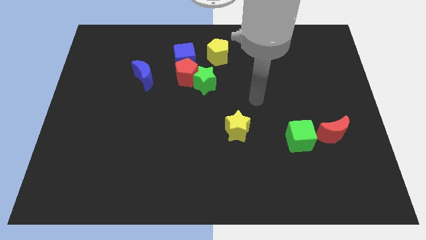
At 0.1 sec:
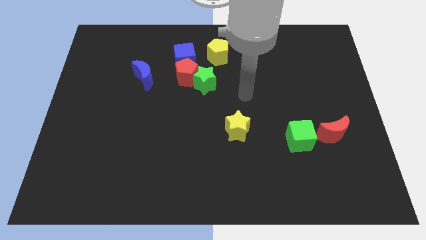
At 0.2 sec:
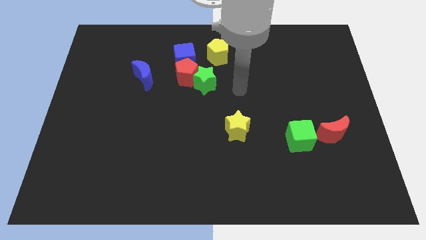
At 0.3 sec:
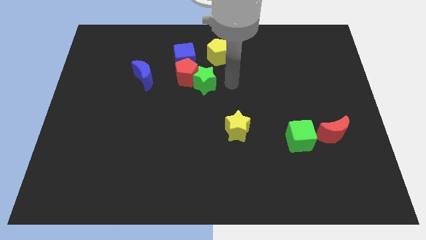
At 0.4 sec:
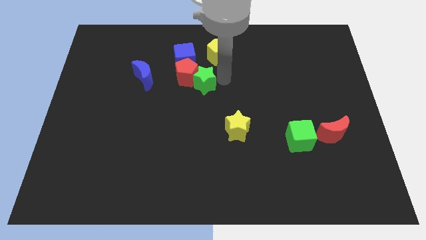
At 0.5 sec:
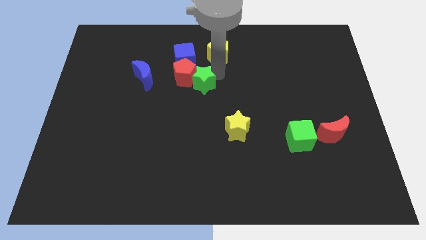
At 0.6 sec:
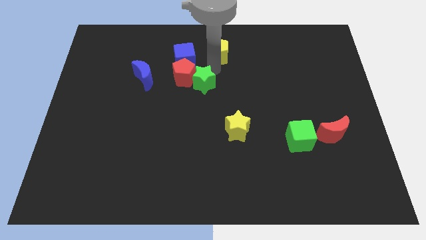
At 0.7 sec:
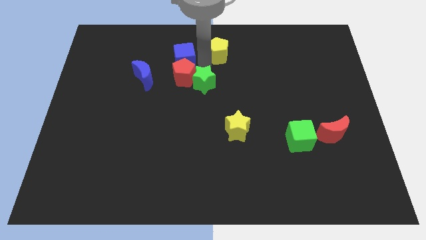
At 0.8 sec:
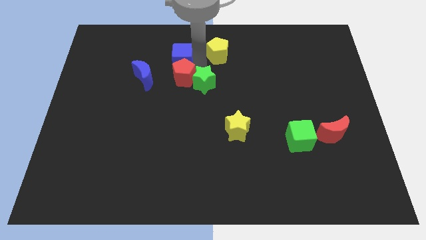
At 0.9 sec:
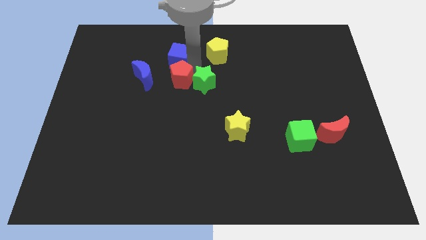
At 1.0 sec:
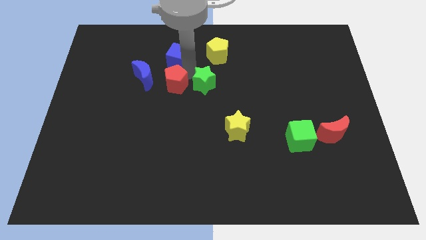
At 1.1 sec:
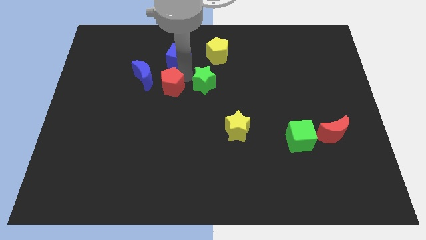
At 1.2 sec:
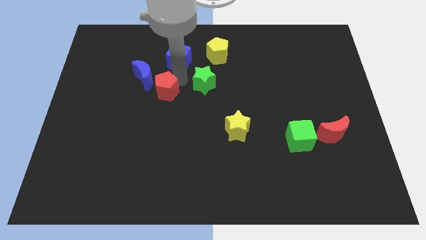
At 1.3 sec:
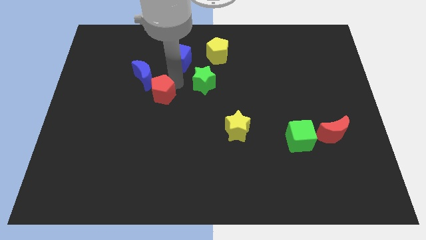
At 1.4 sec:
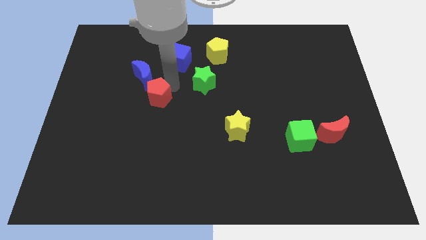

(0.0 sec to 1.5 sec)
move the red pentagon away from the green star and blue cube

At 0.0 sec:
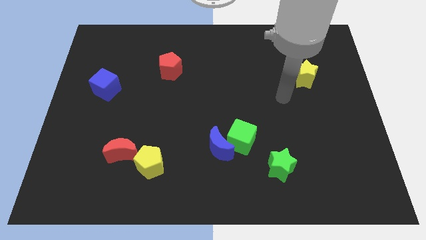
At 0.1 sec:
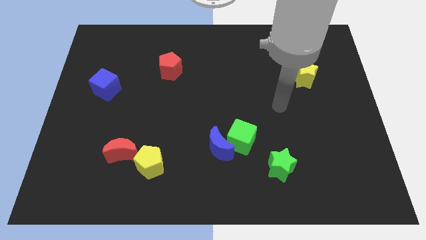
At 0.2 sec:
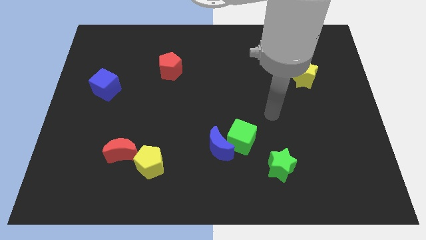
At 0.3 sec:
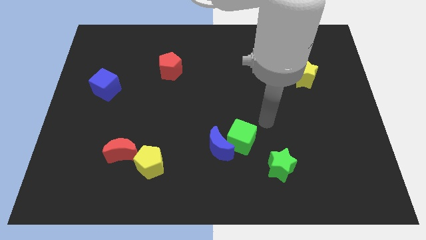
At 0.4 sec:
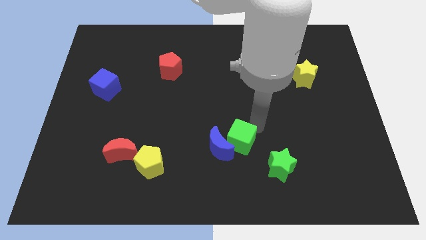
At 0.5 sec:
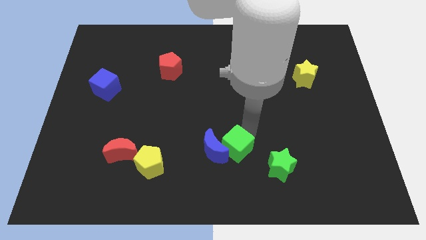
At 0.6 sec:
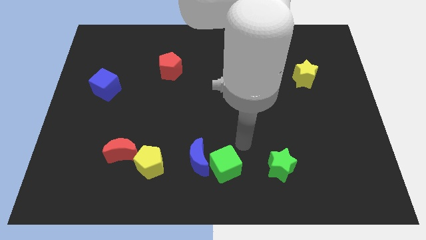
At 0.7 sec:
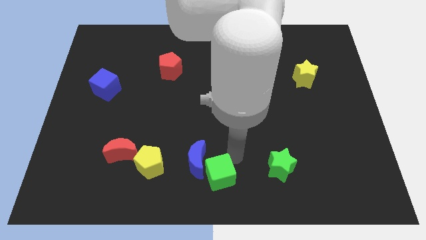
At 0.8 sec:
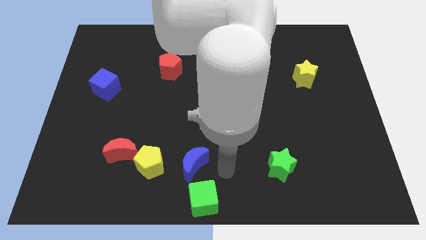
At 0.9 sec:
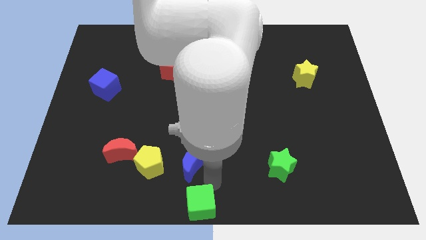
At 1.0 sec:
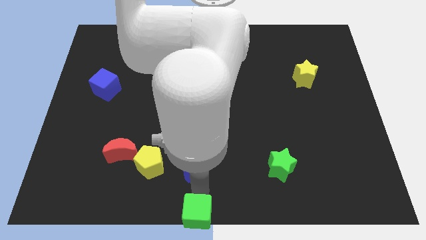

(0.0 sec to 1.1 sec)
pull the blue moon apart from the green cube

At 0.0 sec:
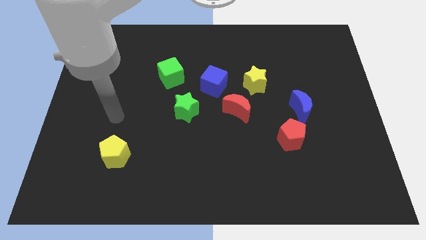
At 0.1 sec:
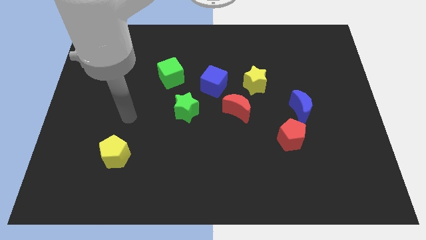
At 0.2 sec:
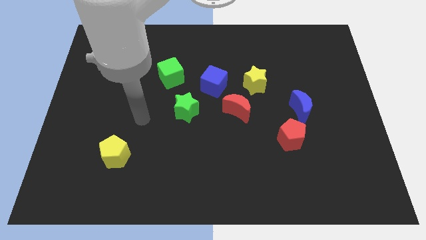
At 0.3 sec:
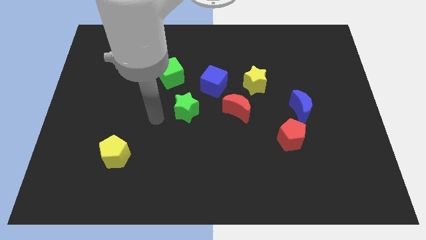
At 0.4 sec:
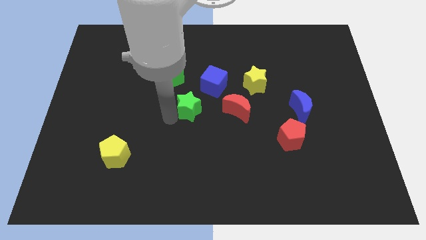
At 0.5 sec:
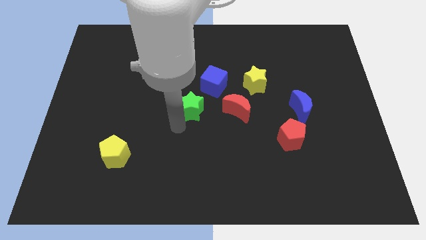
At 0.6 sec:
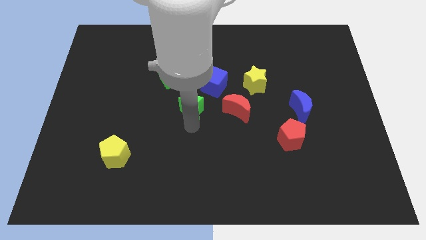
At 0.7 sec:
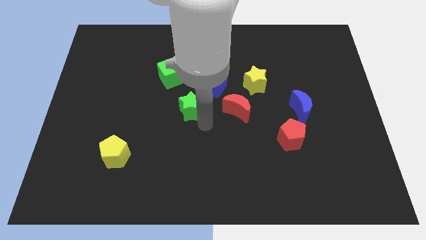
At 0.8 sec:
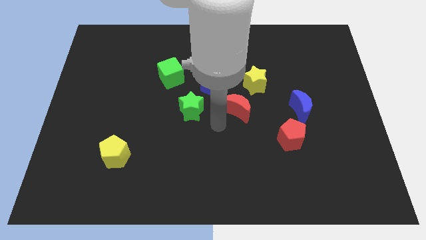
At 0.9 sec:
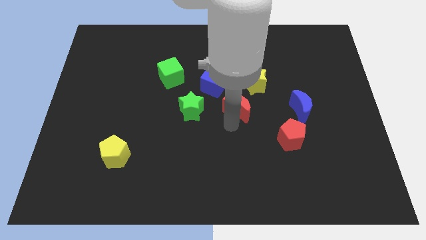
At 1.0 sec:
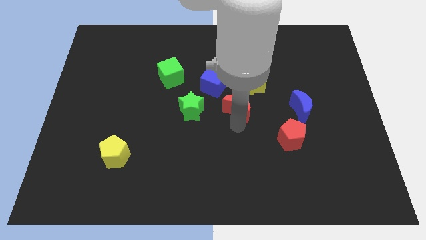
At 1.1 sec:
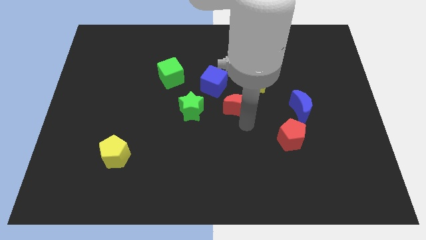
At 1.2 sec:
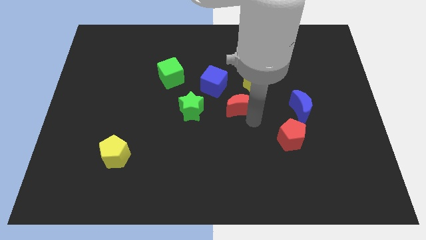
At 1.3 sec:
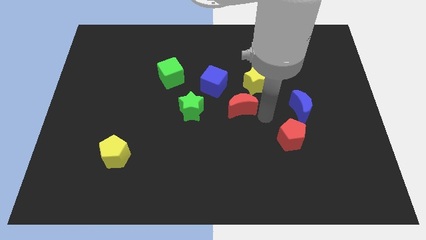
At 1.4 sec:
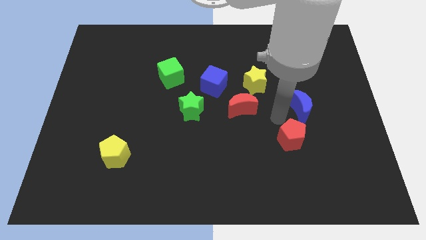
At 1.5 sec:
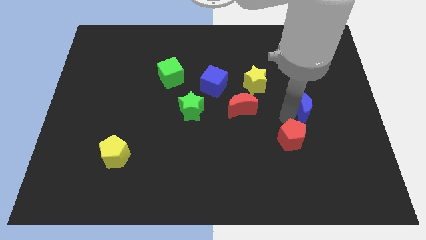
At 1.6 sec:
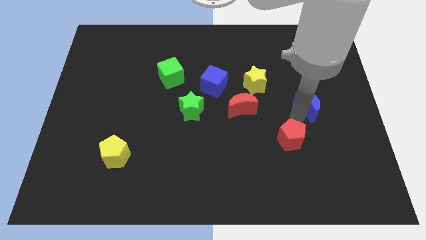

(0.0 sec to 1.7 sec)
separate the red pentagon from the blue moon

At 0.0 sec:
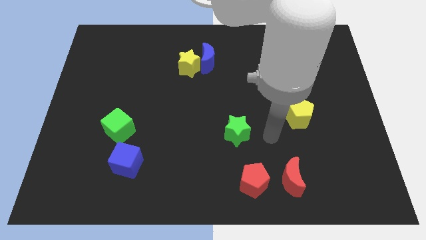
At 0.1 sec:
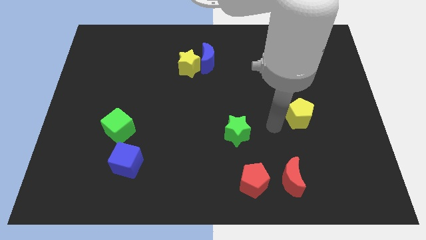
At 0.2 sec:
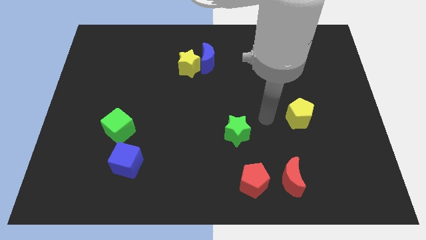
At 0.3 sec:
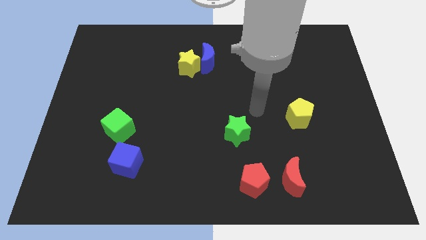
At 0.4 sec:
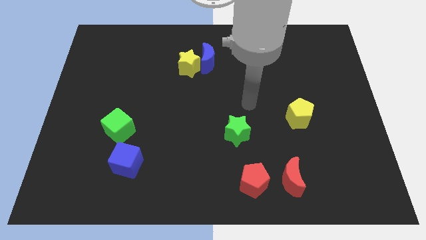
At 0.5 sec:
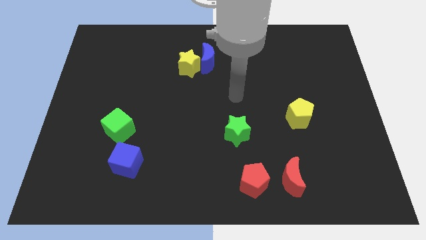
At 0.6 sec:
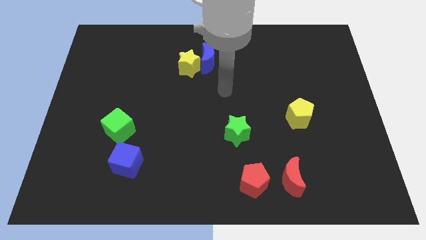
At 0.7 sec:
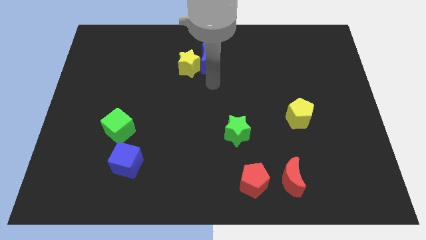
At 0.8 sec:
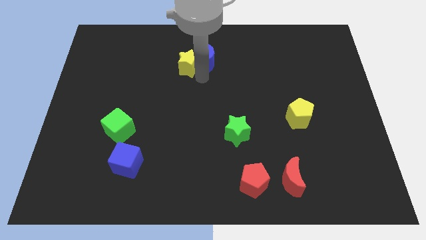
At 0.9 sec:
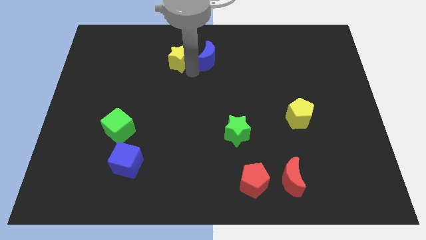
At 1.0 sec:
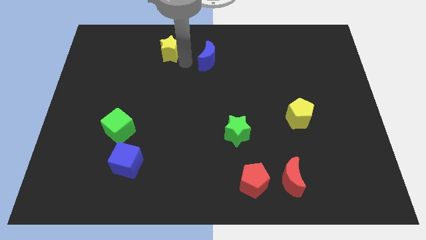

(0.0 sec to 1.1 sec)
pull the blue moon apart from the yellow star

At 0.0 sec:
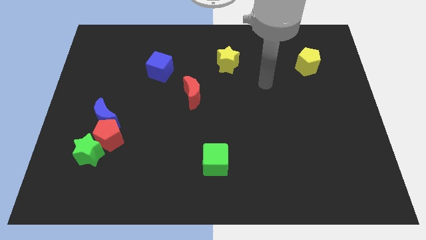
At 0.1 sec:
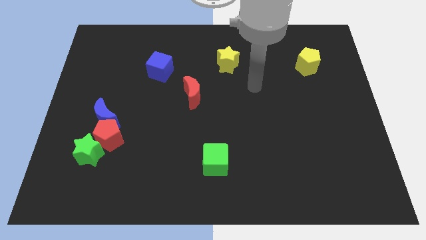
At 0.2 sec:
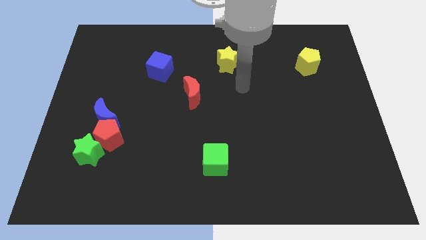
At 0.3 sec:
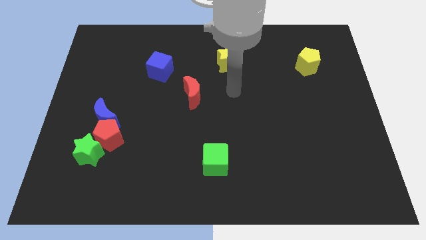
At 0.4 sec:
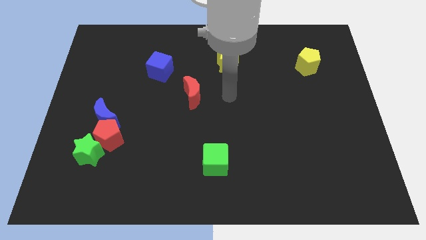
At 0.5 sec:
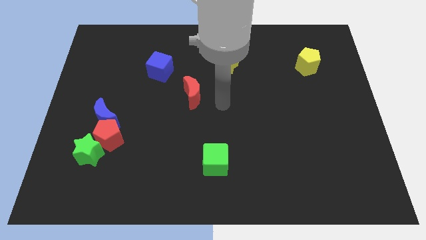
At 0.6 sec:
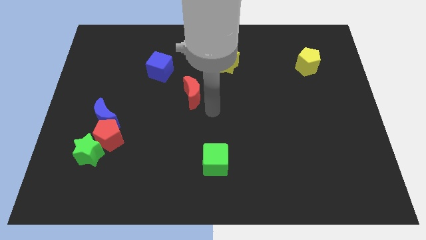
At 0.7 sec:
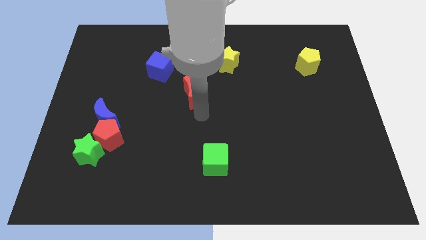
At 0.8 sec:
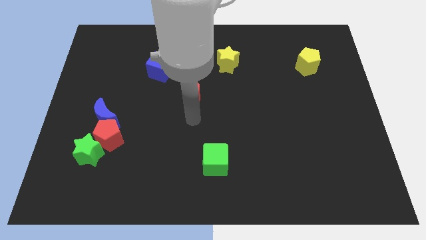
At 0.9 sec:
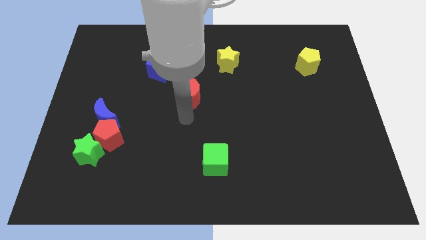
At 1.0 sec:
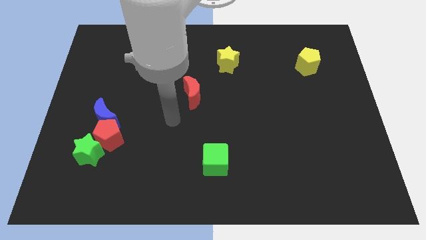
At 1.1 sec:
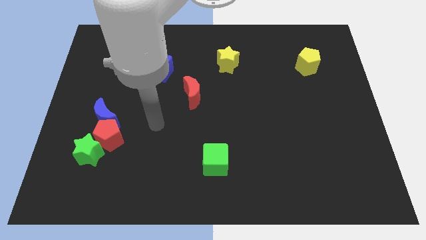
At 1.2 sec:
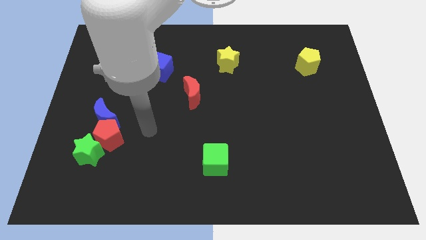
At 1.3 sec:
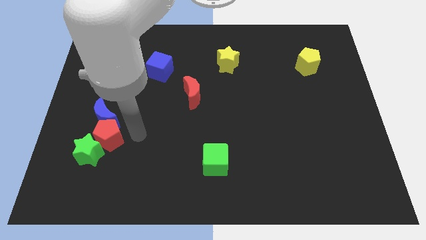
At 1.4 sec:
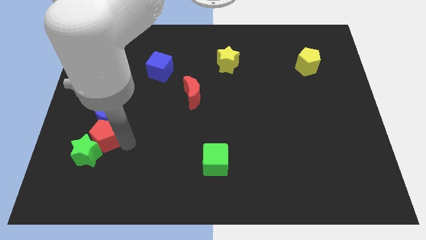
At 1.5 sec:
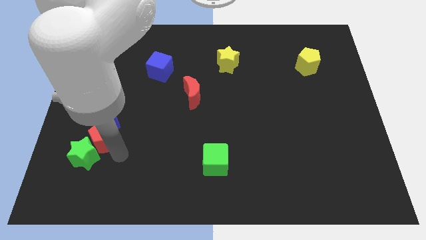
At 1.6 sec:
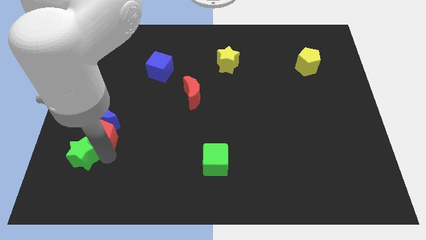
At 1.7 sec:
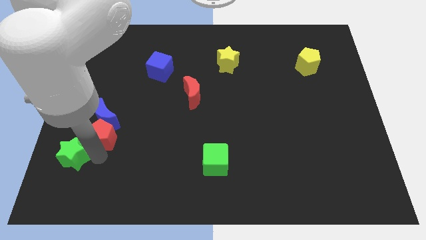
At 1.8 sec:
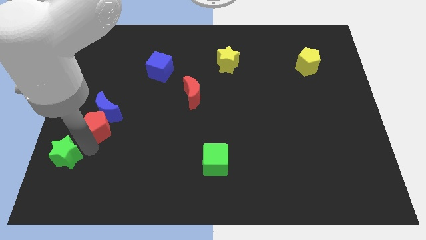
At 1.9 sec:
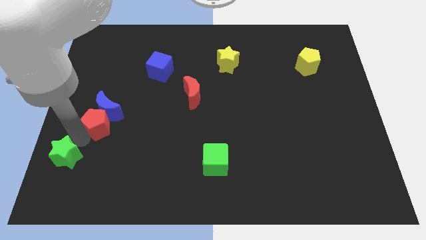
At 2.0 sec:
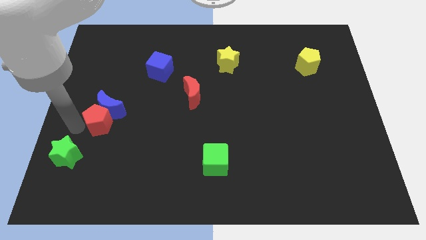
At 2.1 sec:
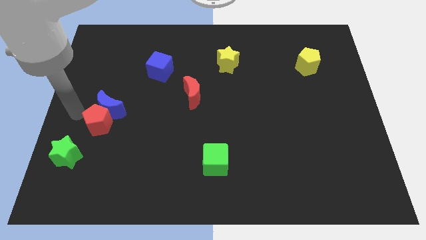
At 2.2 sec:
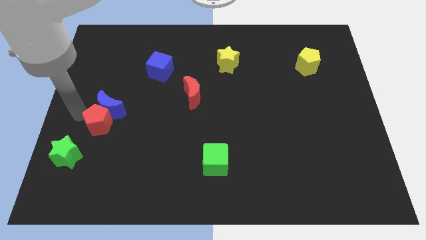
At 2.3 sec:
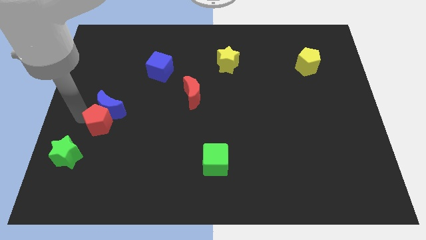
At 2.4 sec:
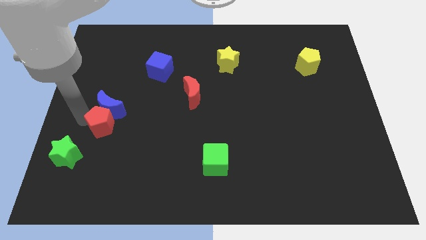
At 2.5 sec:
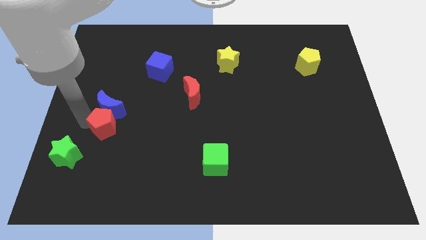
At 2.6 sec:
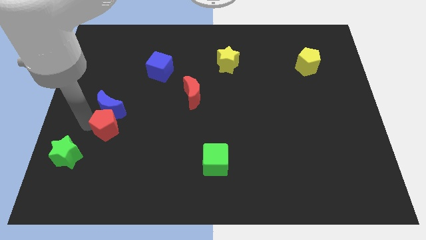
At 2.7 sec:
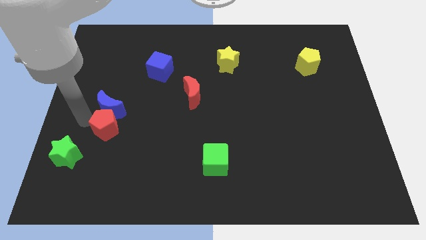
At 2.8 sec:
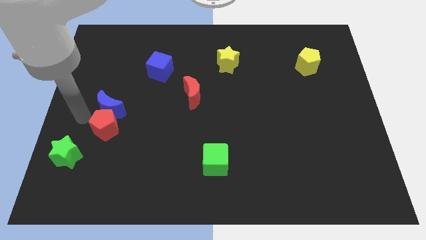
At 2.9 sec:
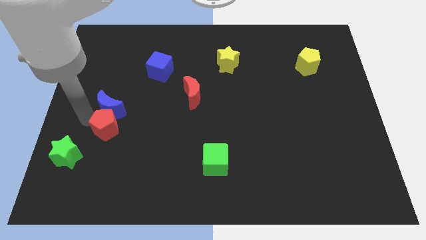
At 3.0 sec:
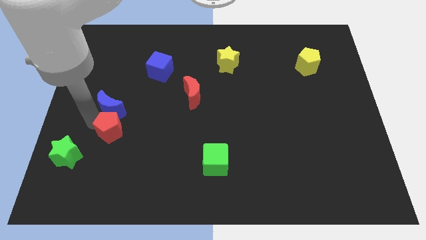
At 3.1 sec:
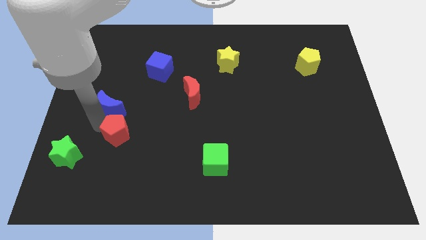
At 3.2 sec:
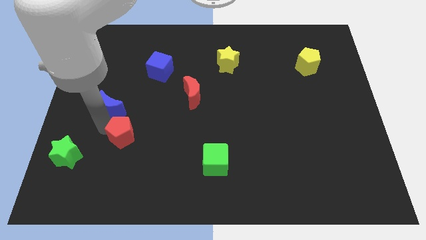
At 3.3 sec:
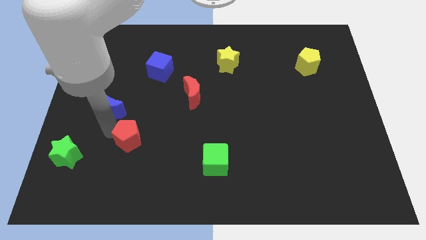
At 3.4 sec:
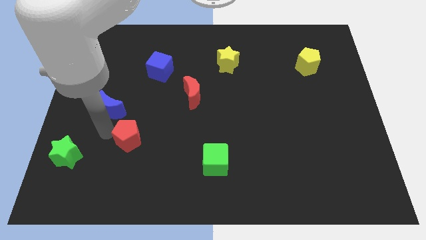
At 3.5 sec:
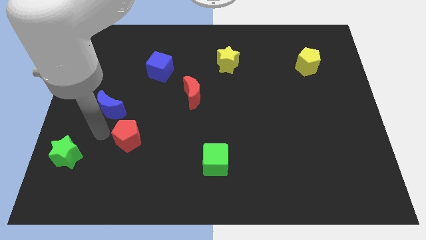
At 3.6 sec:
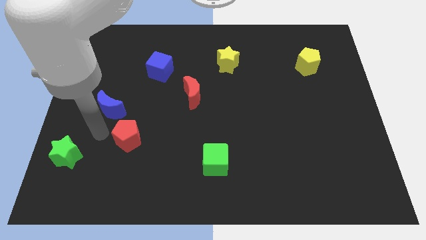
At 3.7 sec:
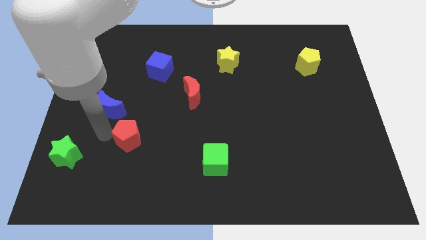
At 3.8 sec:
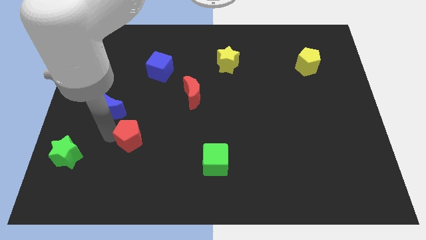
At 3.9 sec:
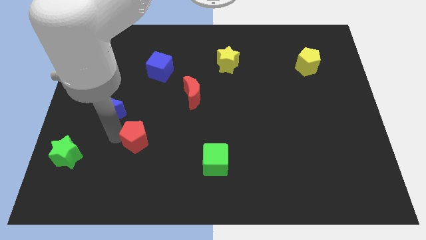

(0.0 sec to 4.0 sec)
move the red pentagon away from the green star and blue moon
